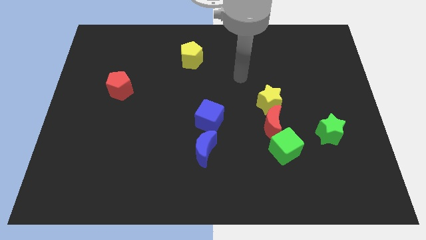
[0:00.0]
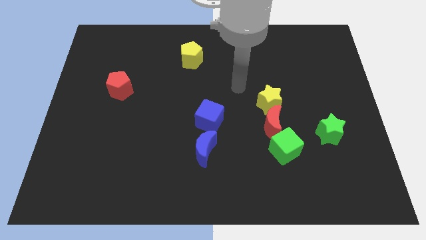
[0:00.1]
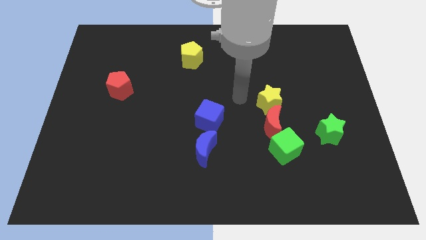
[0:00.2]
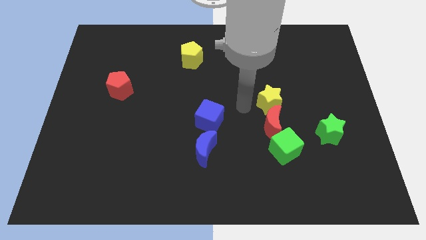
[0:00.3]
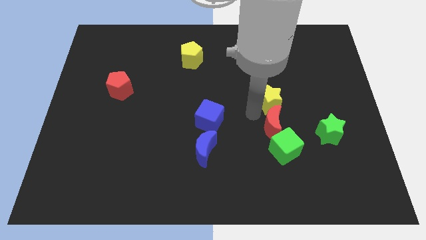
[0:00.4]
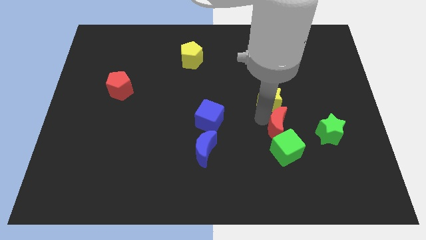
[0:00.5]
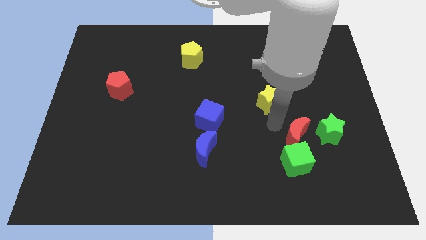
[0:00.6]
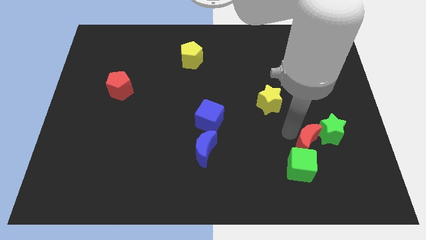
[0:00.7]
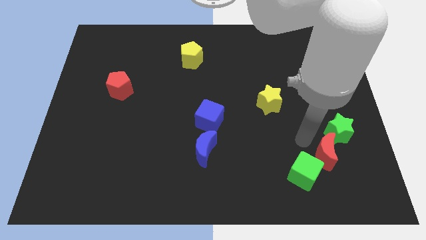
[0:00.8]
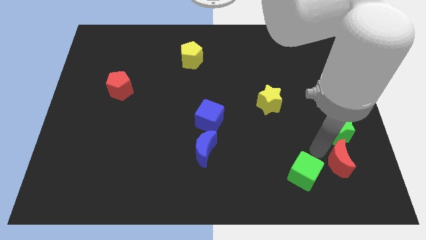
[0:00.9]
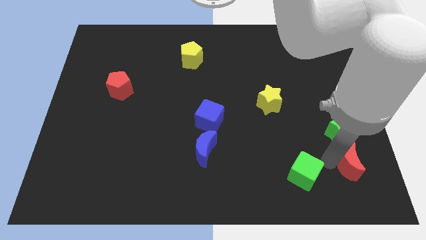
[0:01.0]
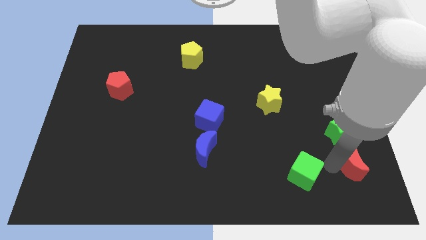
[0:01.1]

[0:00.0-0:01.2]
separate the green cube from the red moon

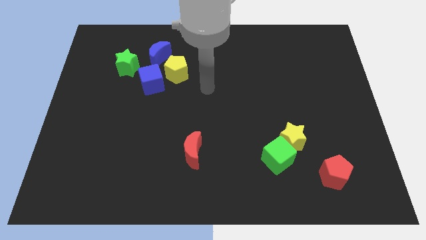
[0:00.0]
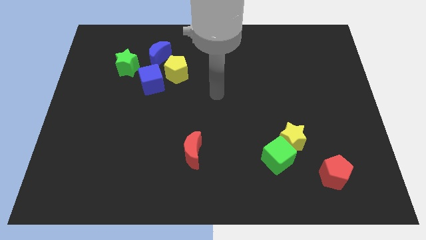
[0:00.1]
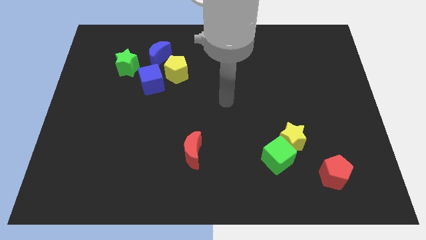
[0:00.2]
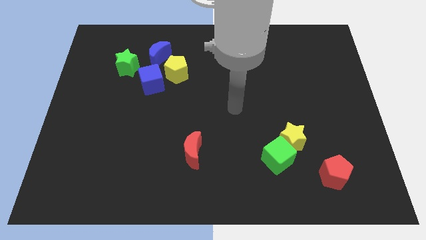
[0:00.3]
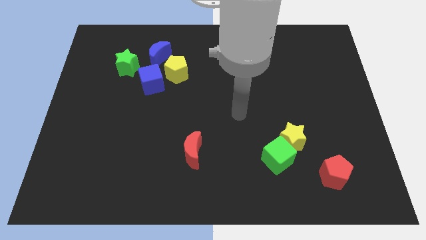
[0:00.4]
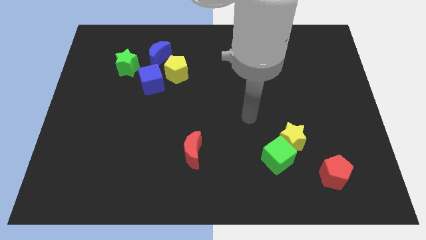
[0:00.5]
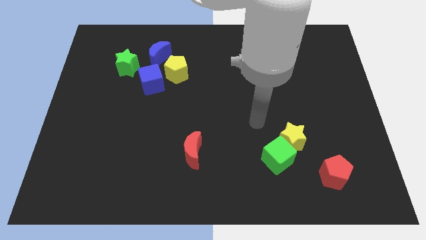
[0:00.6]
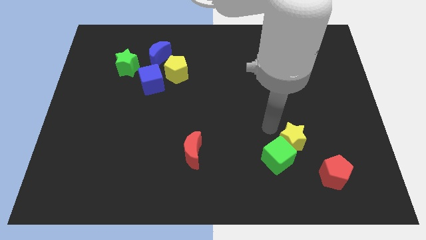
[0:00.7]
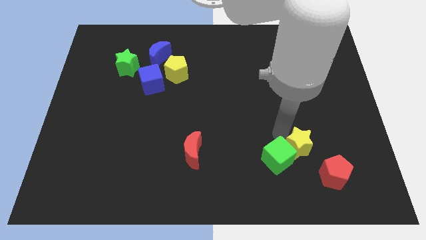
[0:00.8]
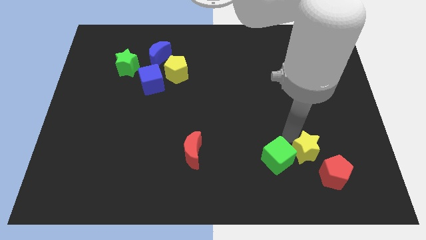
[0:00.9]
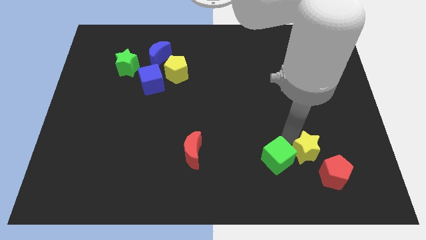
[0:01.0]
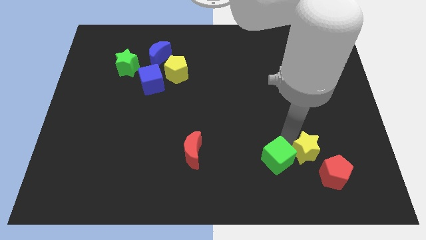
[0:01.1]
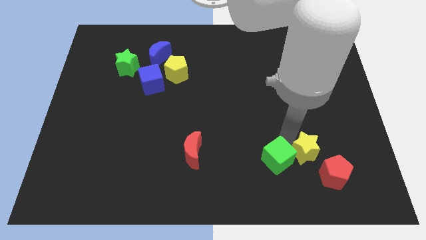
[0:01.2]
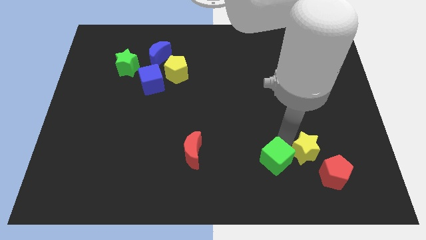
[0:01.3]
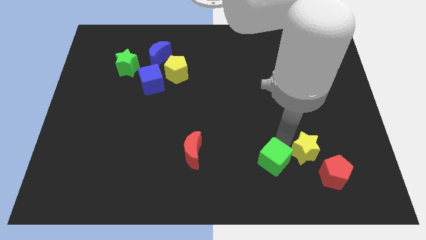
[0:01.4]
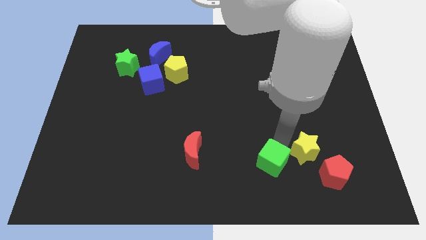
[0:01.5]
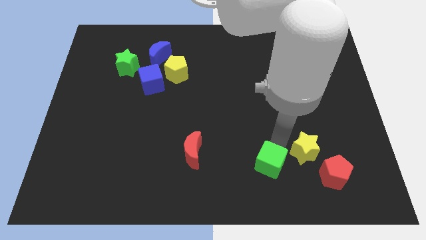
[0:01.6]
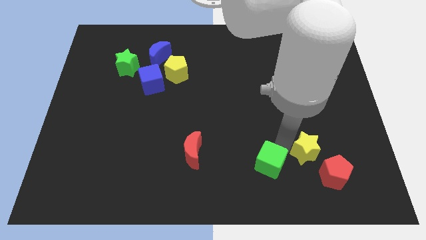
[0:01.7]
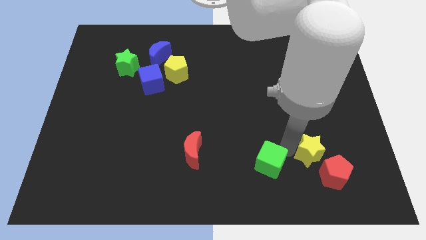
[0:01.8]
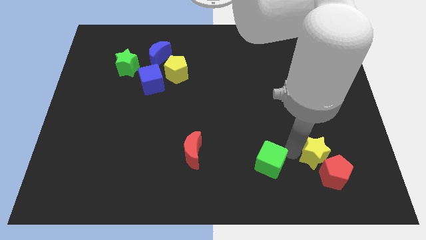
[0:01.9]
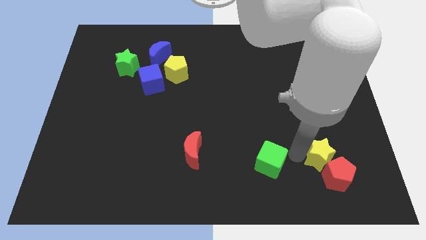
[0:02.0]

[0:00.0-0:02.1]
pull the green cube apart from the yellow star

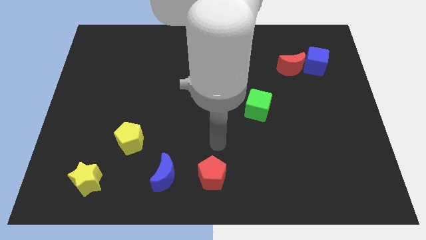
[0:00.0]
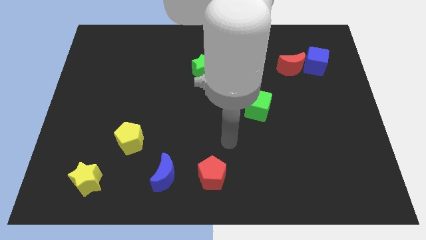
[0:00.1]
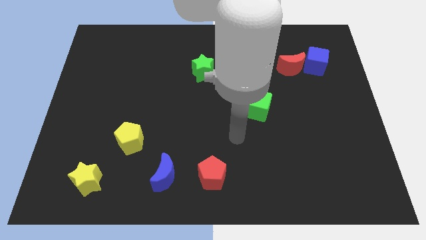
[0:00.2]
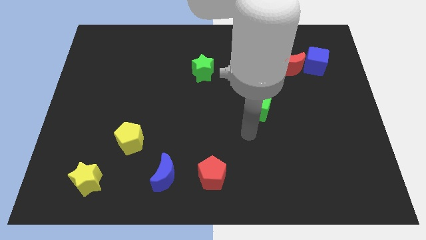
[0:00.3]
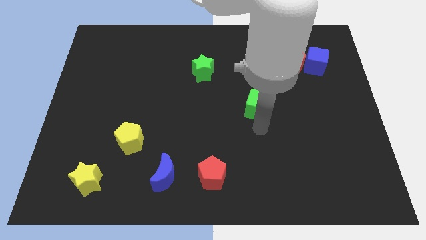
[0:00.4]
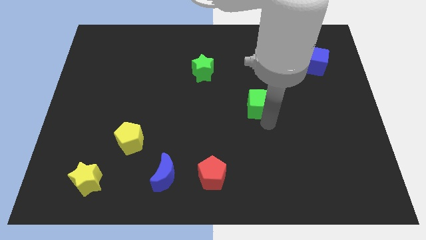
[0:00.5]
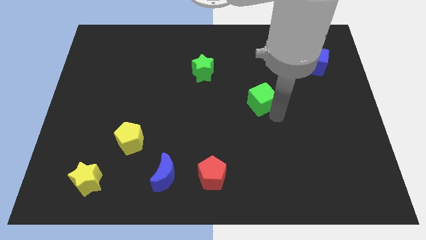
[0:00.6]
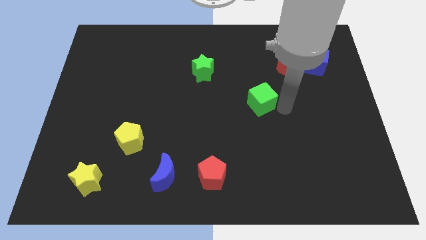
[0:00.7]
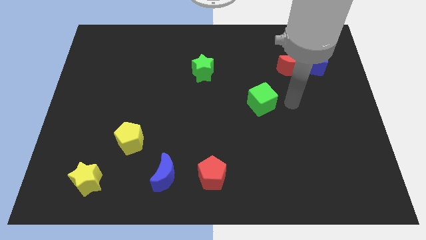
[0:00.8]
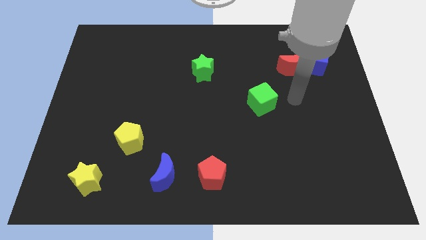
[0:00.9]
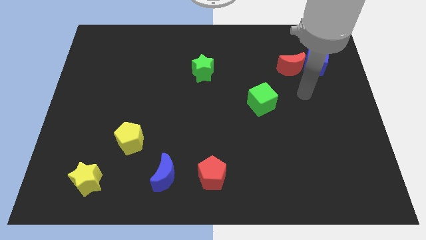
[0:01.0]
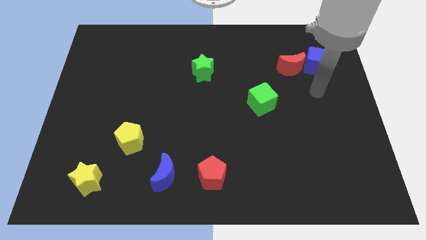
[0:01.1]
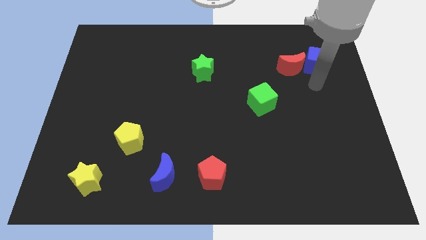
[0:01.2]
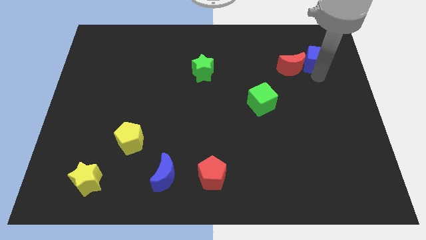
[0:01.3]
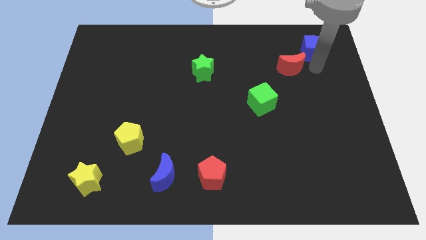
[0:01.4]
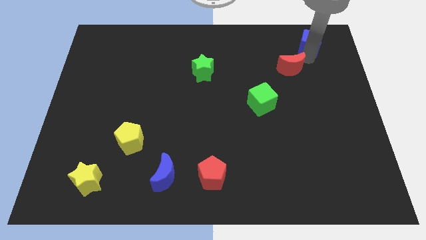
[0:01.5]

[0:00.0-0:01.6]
move the red moon away from the blue cube

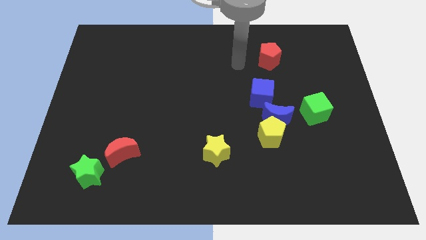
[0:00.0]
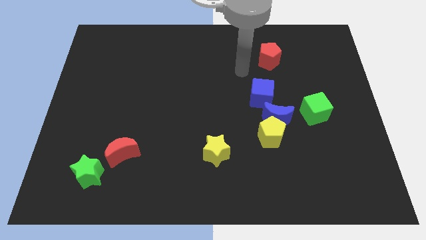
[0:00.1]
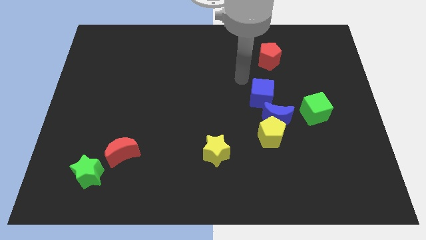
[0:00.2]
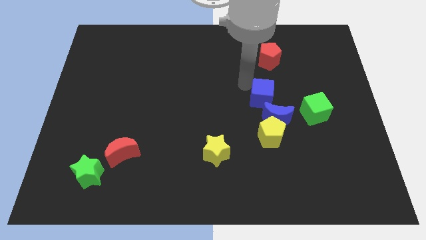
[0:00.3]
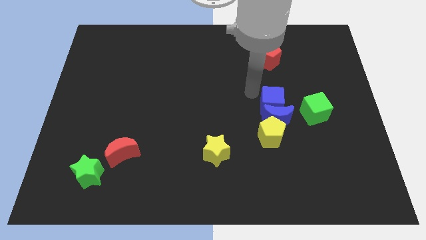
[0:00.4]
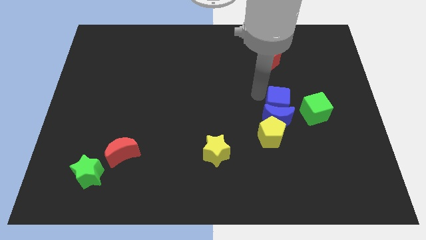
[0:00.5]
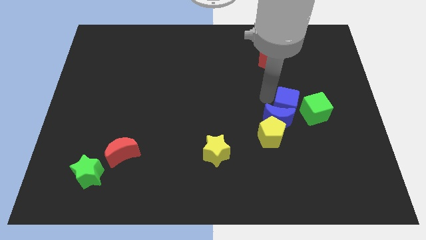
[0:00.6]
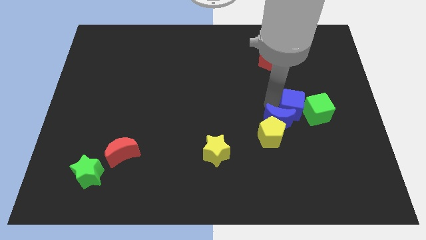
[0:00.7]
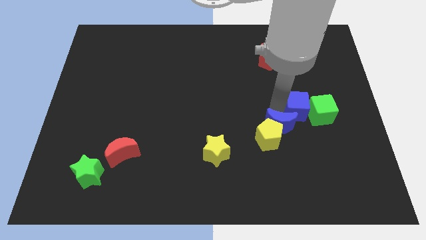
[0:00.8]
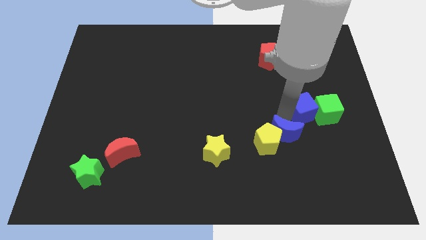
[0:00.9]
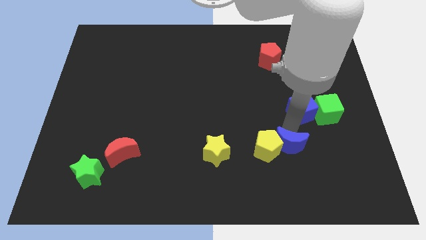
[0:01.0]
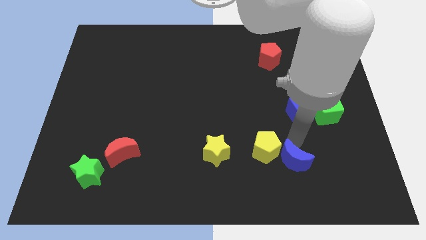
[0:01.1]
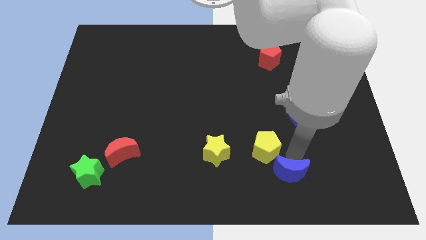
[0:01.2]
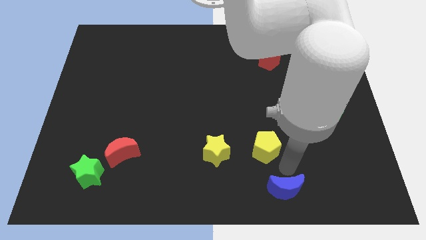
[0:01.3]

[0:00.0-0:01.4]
pull the yellow pentagon apart from the blue moon

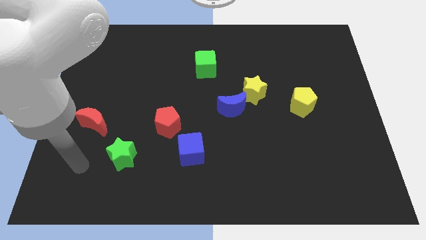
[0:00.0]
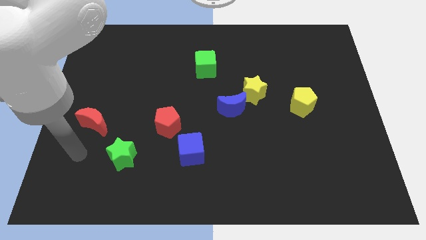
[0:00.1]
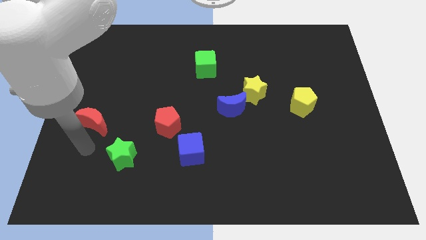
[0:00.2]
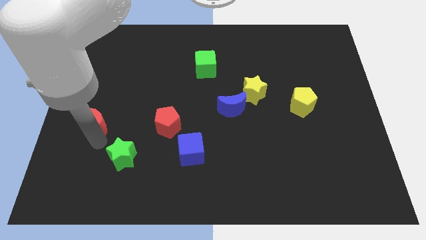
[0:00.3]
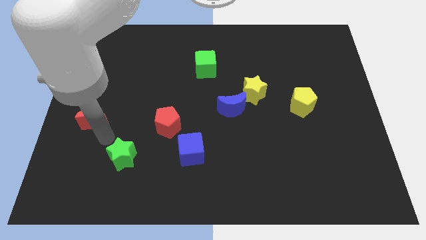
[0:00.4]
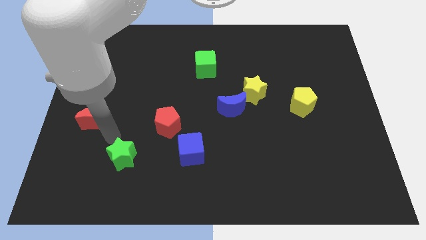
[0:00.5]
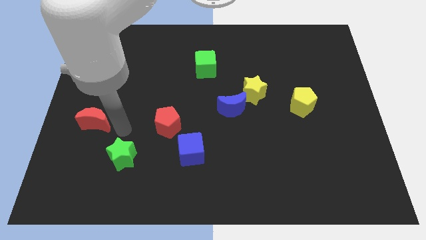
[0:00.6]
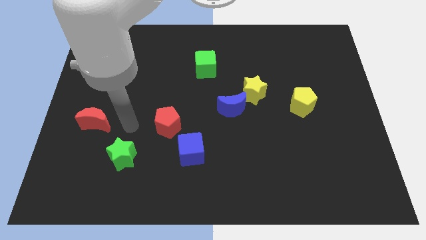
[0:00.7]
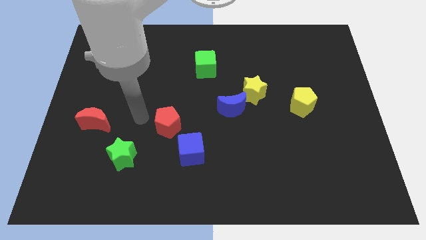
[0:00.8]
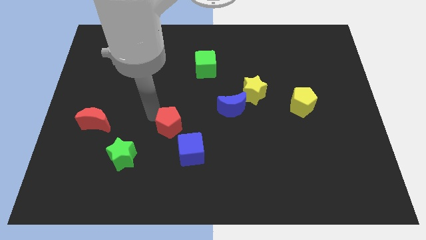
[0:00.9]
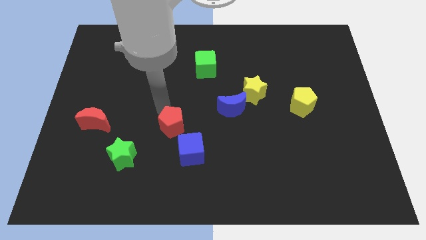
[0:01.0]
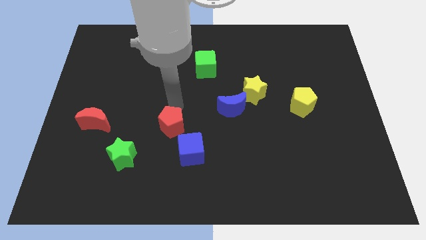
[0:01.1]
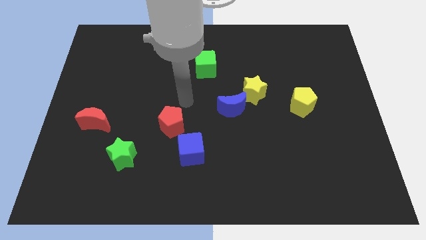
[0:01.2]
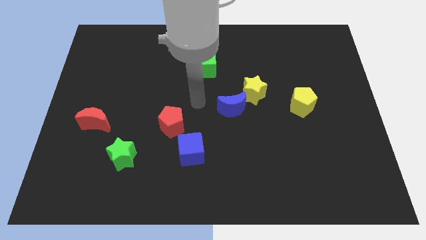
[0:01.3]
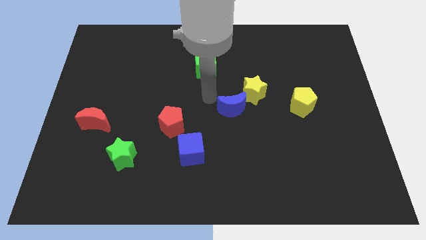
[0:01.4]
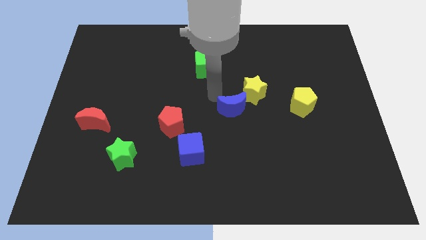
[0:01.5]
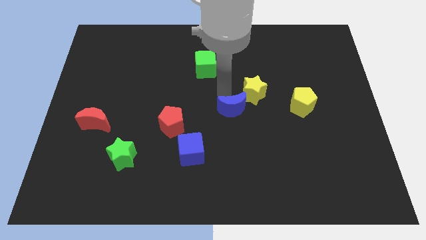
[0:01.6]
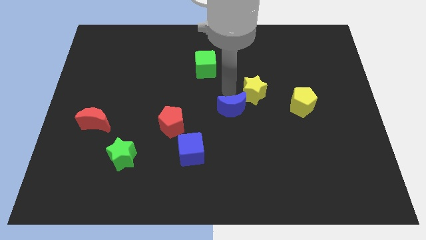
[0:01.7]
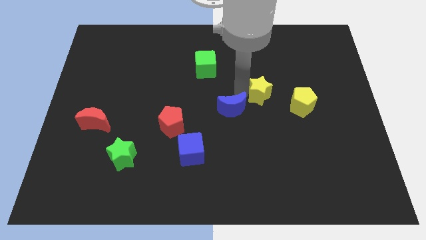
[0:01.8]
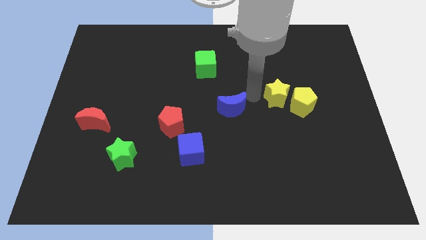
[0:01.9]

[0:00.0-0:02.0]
move the blue moon away from the yellow star

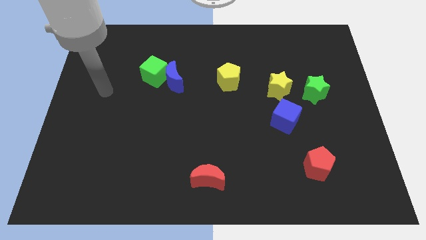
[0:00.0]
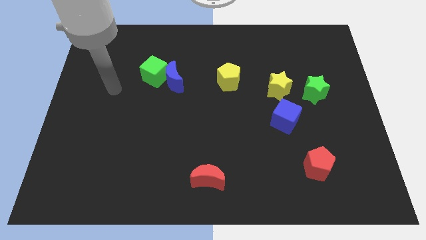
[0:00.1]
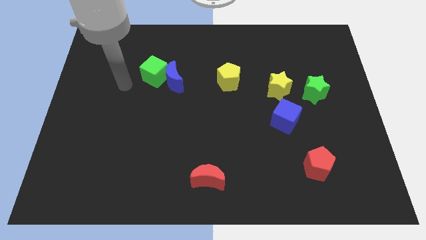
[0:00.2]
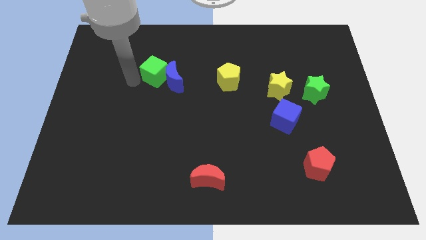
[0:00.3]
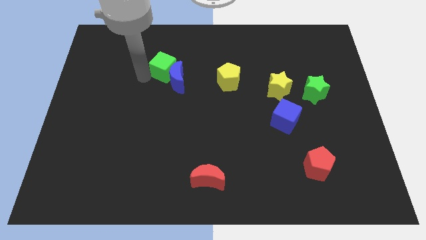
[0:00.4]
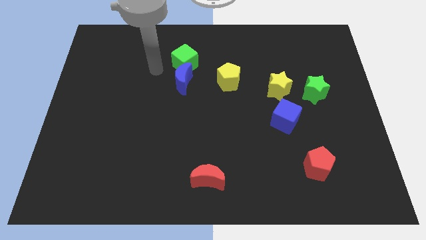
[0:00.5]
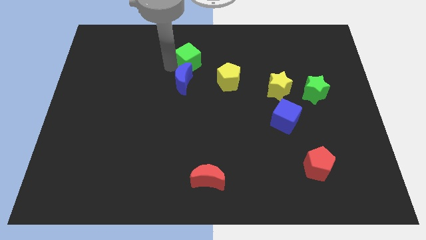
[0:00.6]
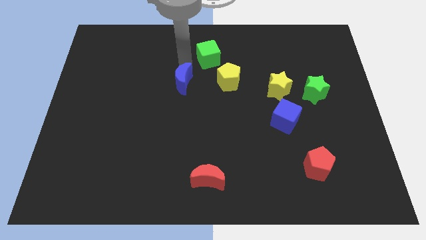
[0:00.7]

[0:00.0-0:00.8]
pull the blue moon apart from the green cube

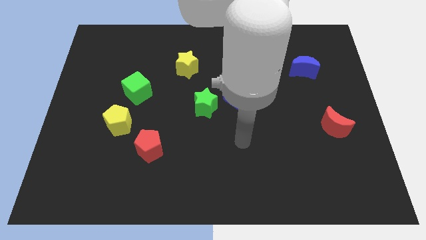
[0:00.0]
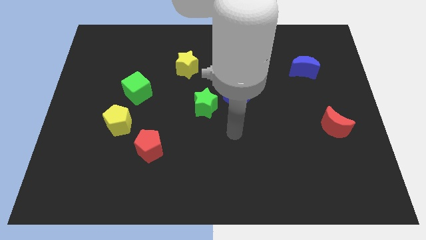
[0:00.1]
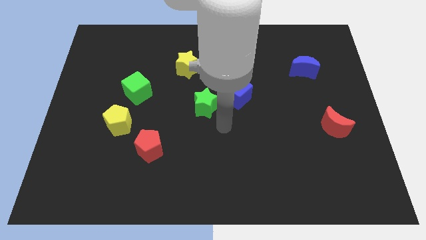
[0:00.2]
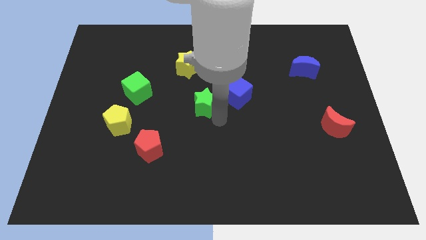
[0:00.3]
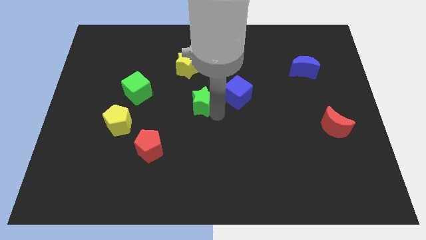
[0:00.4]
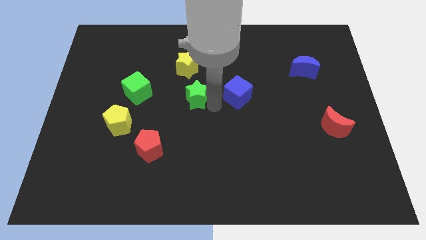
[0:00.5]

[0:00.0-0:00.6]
pull the blue cube apart from the green star
